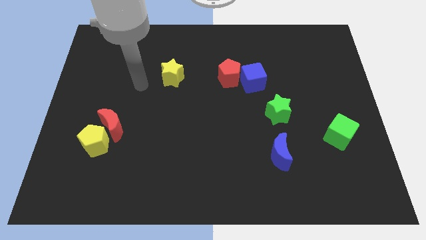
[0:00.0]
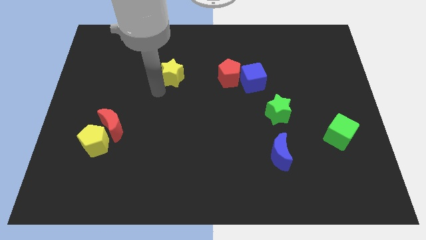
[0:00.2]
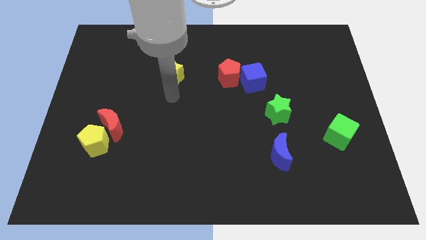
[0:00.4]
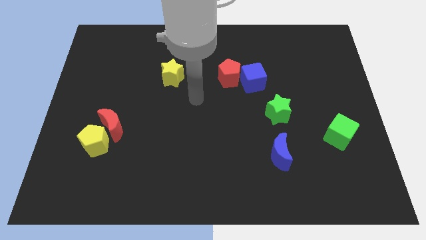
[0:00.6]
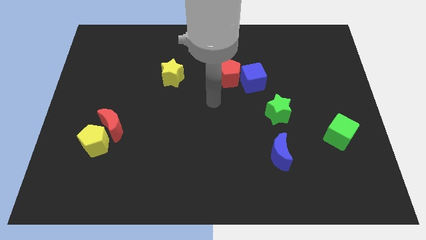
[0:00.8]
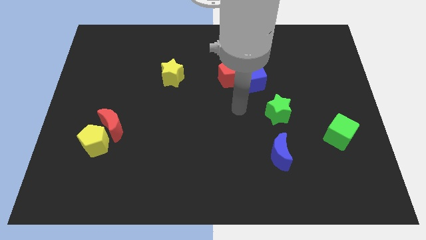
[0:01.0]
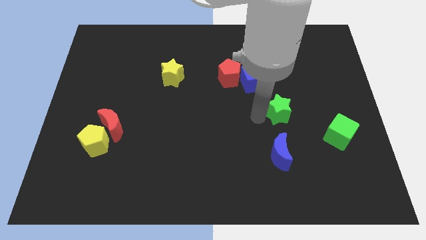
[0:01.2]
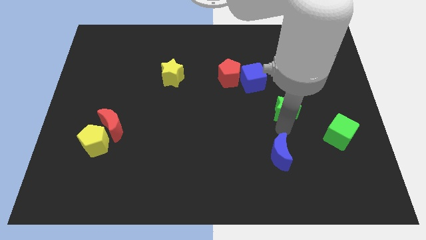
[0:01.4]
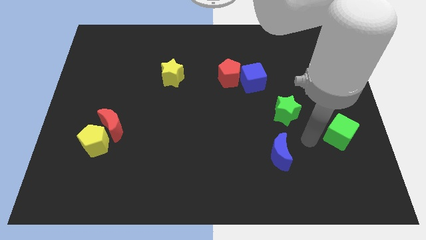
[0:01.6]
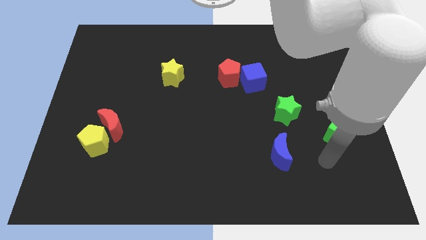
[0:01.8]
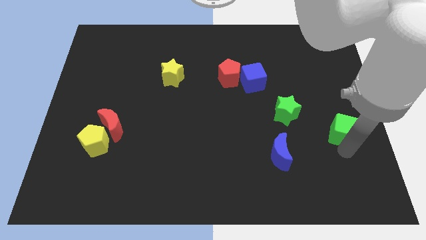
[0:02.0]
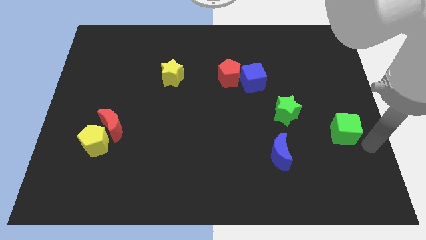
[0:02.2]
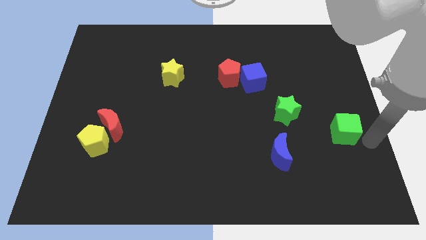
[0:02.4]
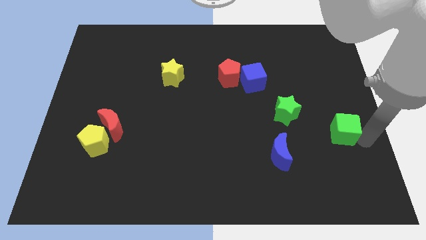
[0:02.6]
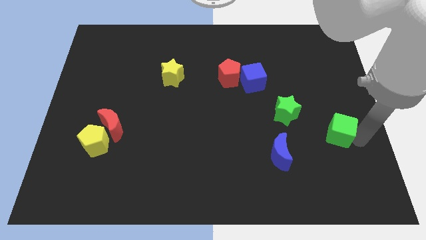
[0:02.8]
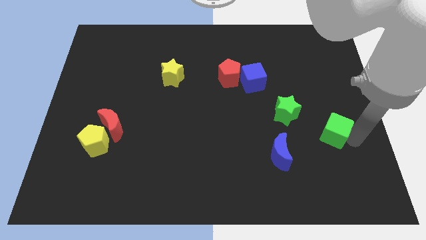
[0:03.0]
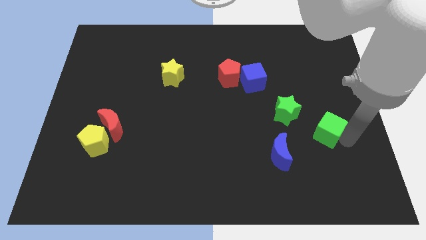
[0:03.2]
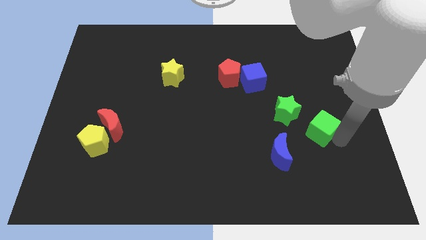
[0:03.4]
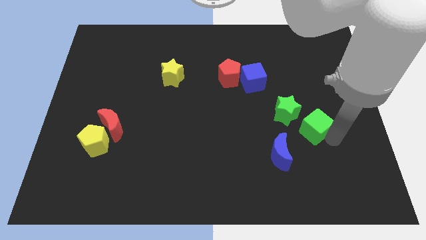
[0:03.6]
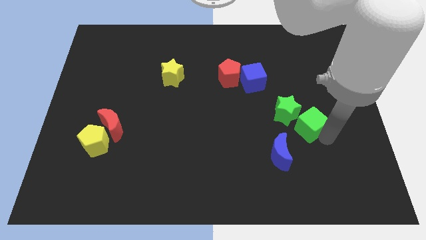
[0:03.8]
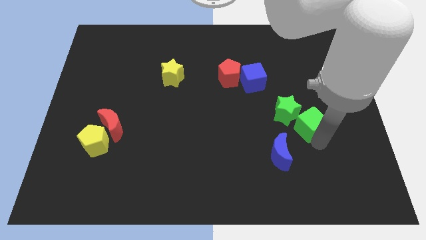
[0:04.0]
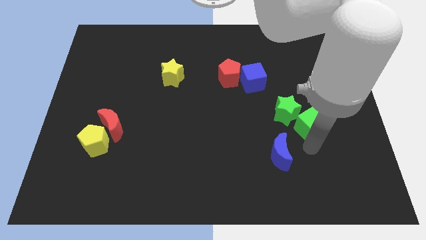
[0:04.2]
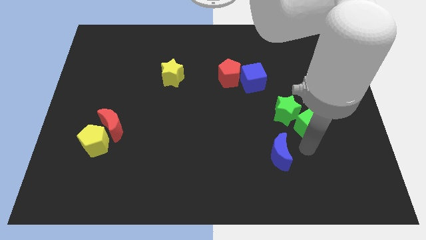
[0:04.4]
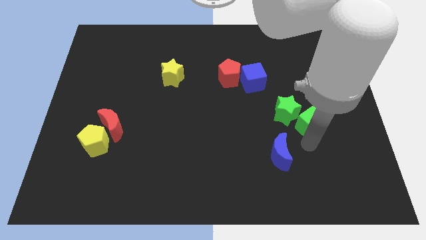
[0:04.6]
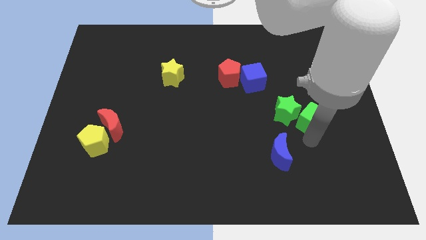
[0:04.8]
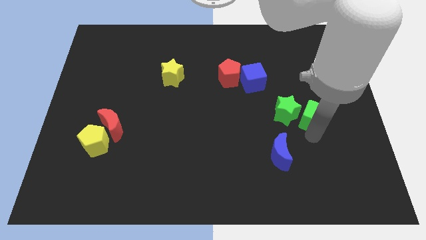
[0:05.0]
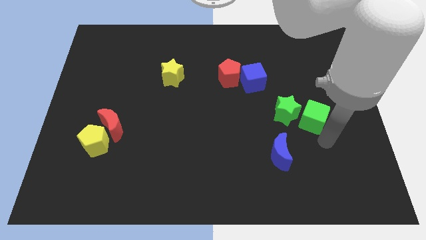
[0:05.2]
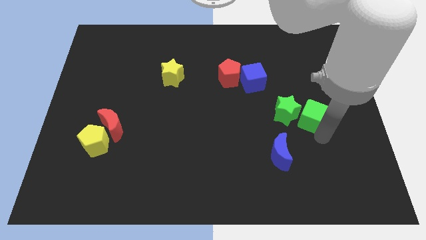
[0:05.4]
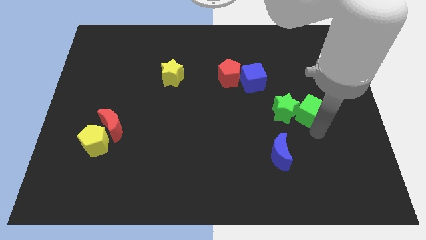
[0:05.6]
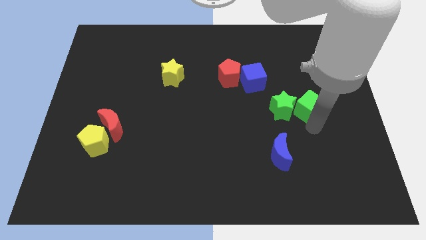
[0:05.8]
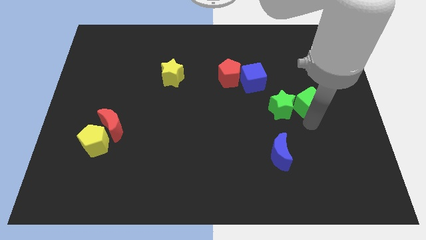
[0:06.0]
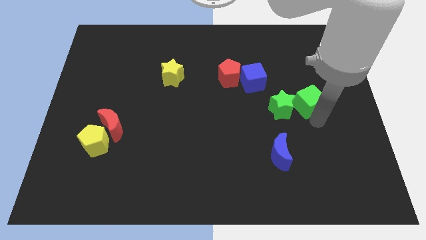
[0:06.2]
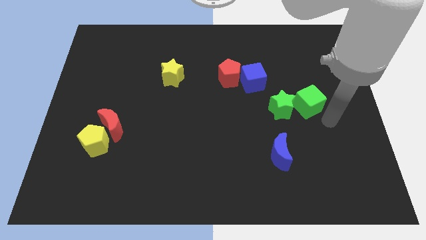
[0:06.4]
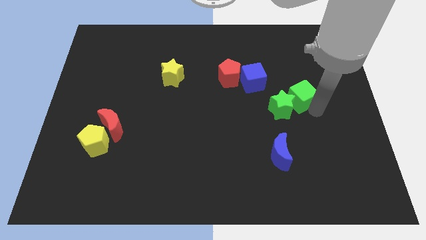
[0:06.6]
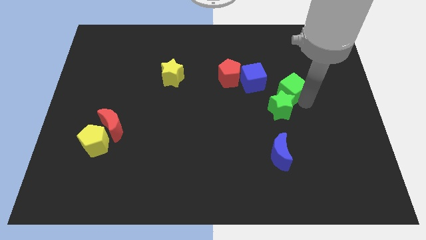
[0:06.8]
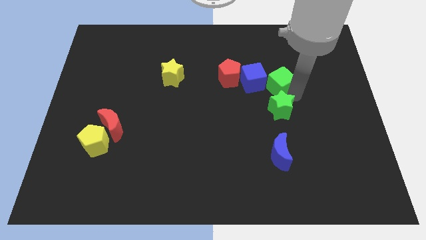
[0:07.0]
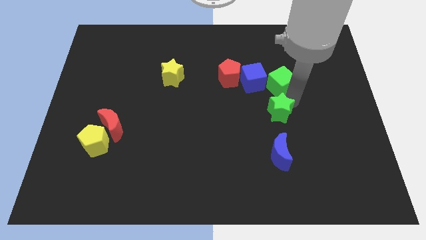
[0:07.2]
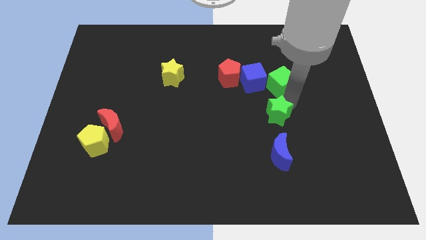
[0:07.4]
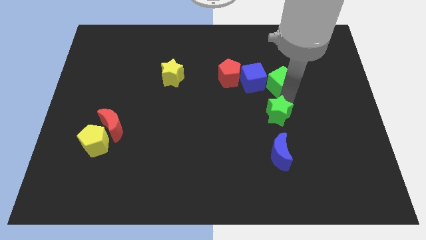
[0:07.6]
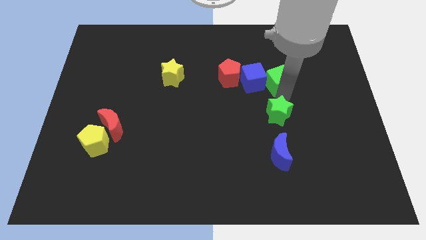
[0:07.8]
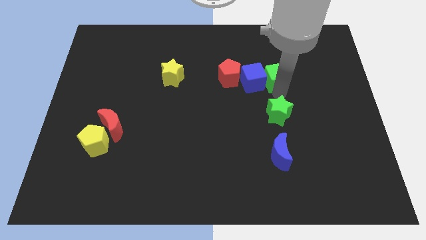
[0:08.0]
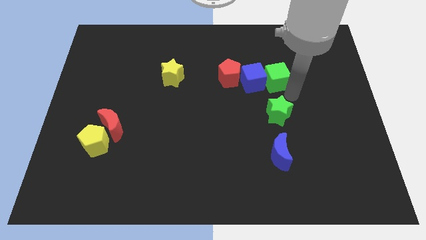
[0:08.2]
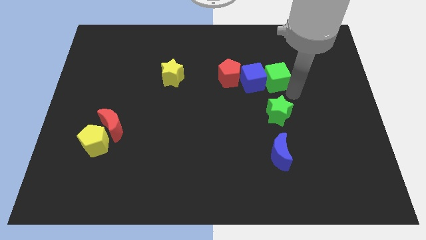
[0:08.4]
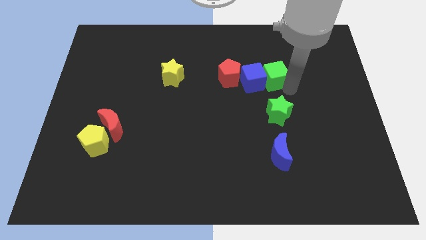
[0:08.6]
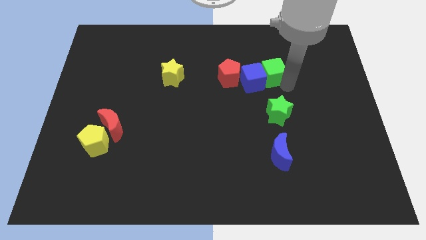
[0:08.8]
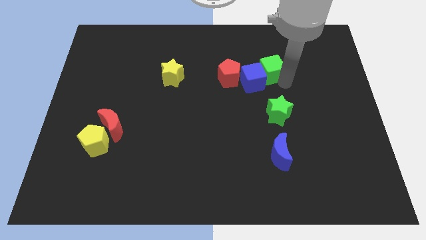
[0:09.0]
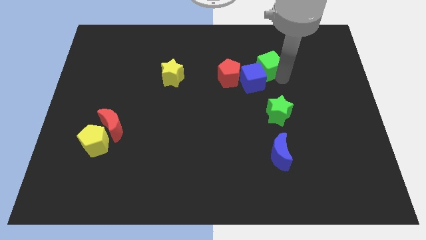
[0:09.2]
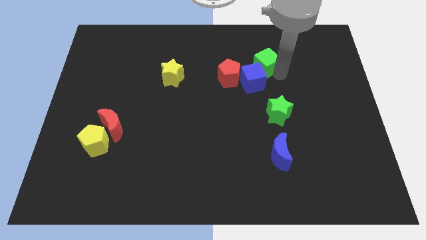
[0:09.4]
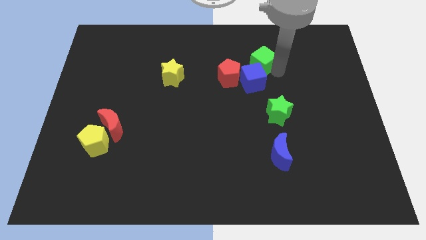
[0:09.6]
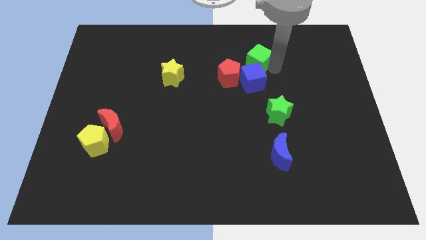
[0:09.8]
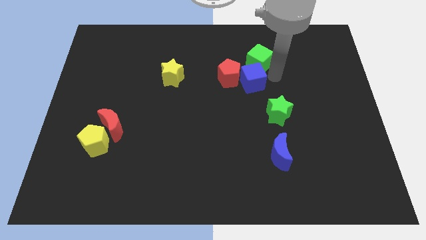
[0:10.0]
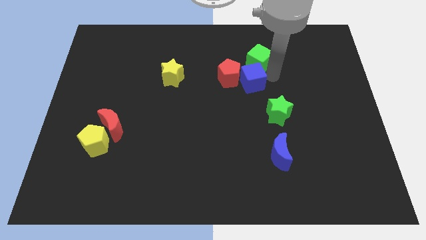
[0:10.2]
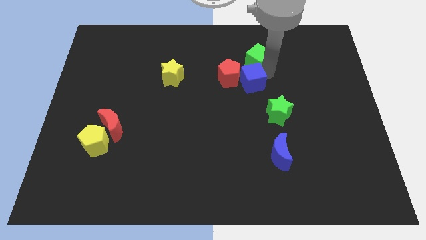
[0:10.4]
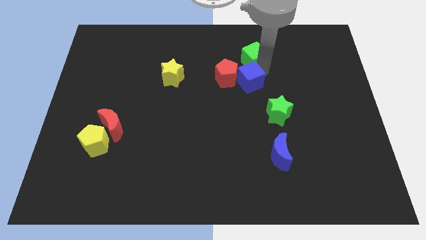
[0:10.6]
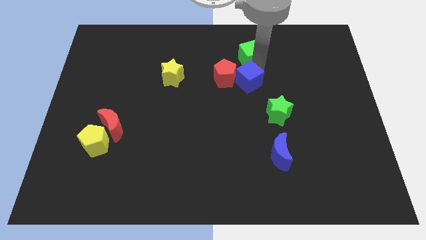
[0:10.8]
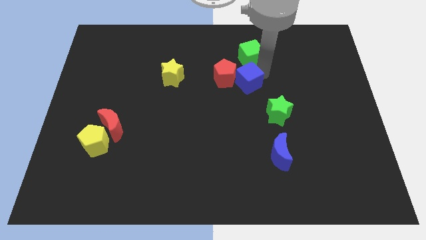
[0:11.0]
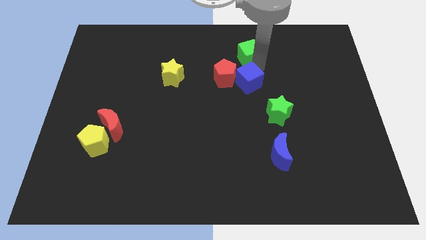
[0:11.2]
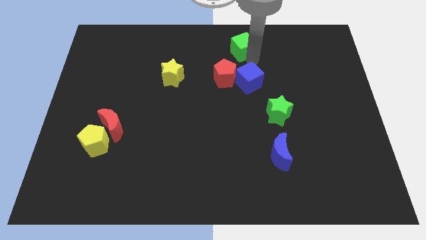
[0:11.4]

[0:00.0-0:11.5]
push the green cube to the towards your base

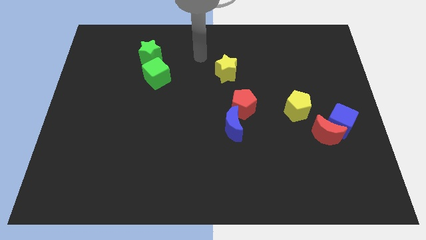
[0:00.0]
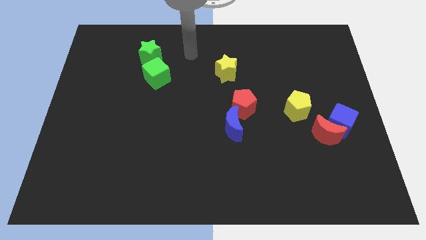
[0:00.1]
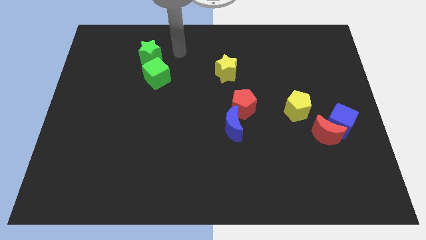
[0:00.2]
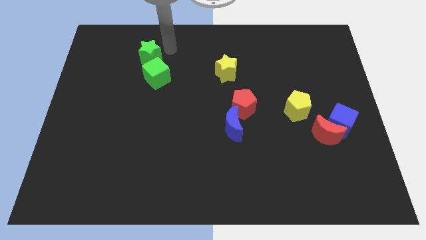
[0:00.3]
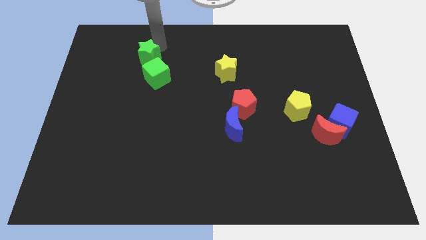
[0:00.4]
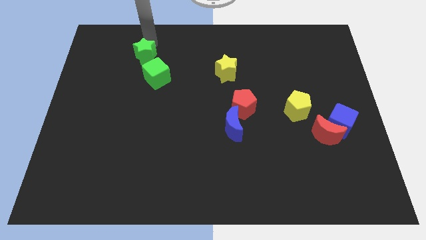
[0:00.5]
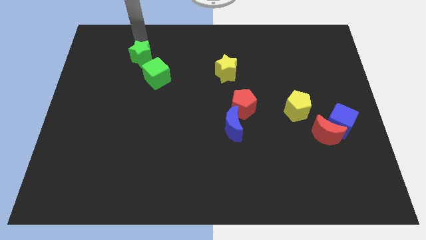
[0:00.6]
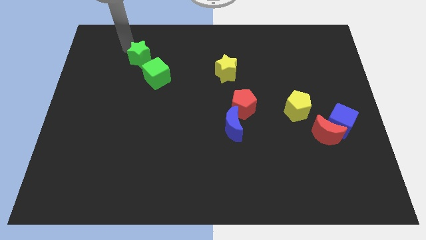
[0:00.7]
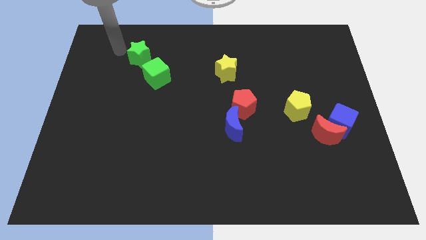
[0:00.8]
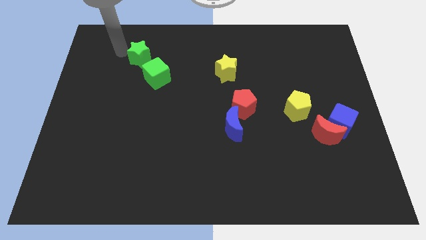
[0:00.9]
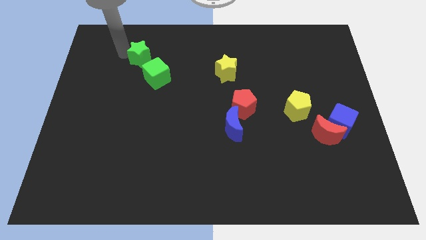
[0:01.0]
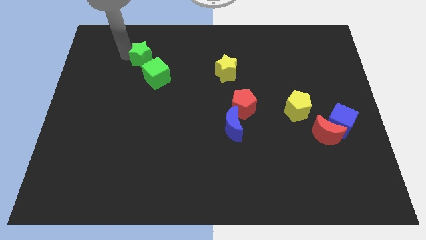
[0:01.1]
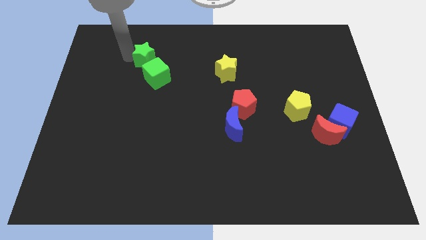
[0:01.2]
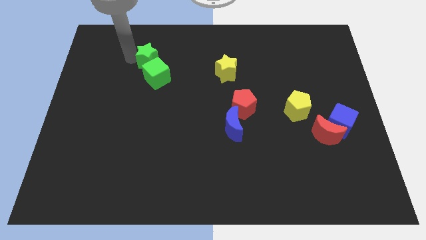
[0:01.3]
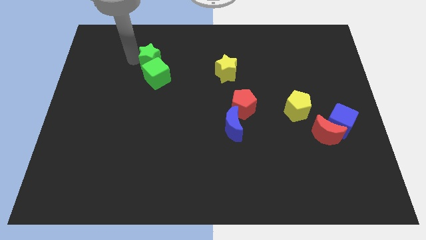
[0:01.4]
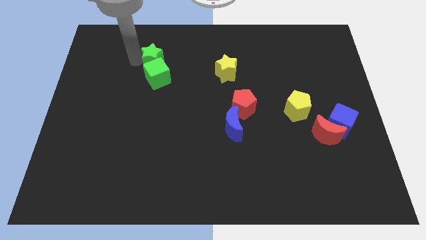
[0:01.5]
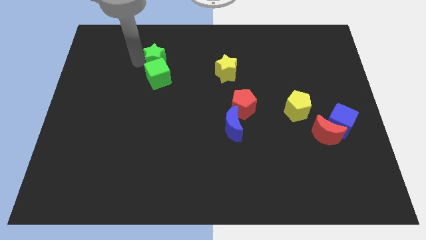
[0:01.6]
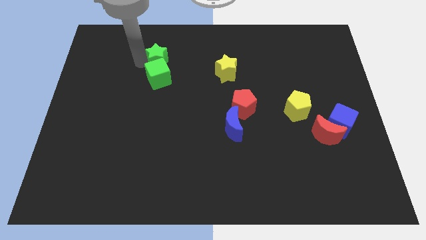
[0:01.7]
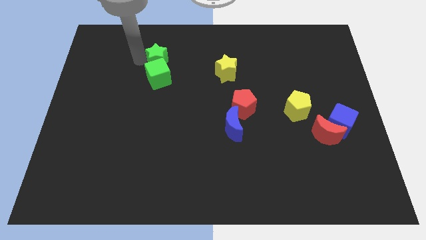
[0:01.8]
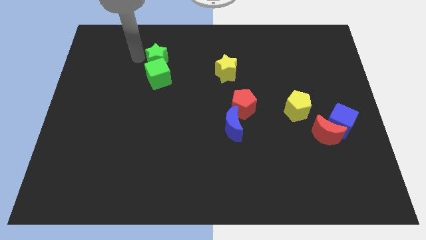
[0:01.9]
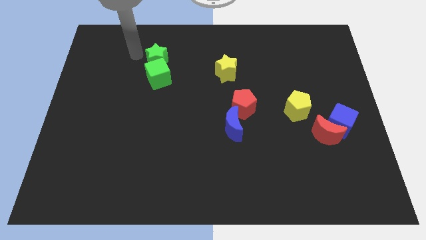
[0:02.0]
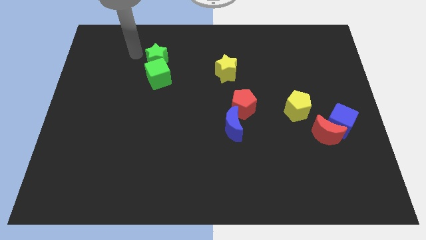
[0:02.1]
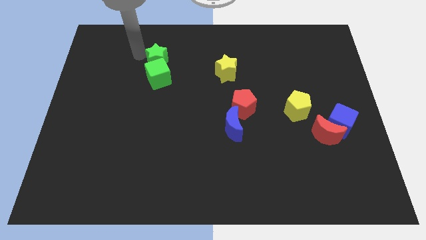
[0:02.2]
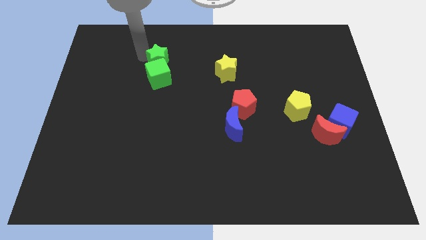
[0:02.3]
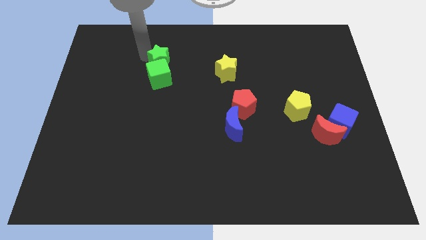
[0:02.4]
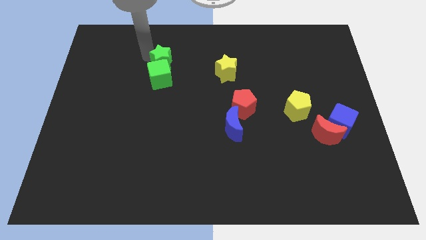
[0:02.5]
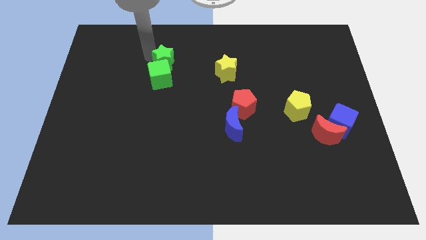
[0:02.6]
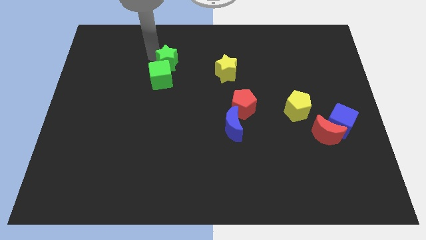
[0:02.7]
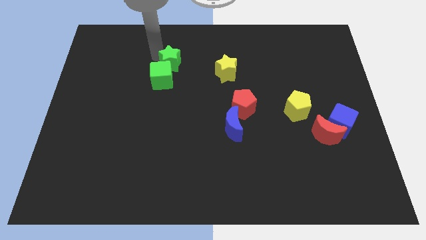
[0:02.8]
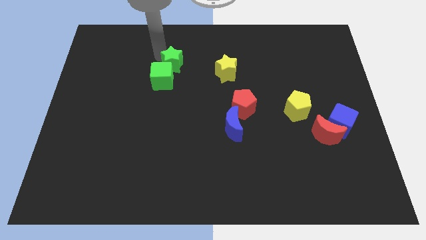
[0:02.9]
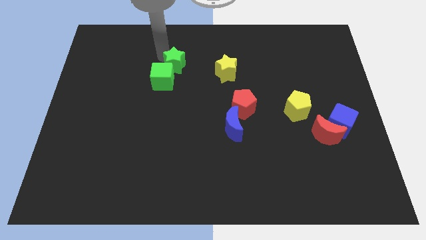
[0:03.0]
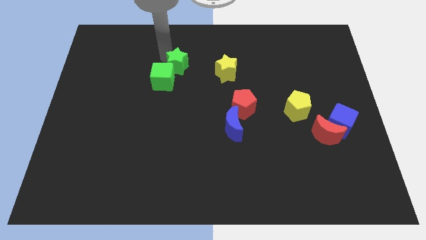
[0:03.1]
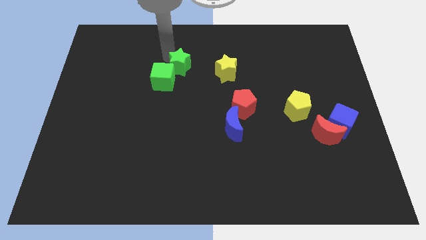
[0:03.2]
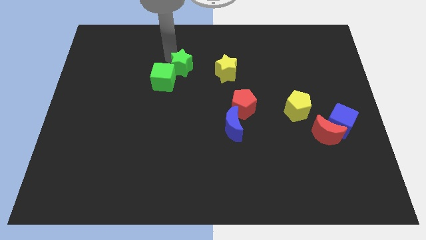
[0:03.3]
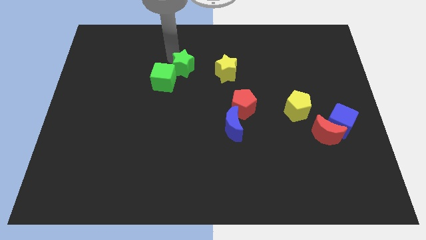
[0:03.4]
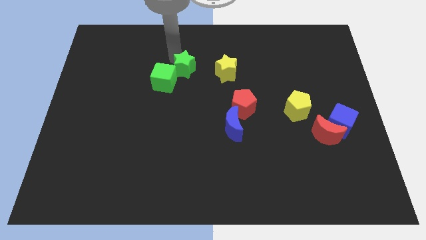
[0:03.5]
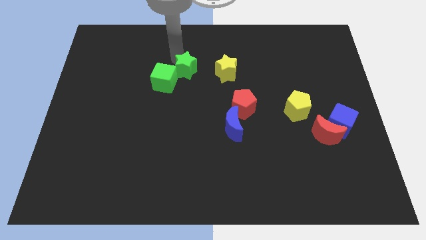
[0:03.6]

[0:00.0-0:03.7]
move the green star to the middle
